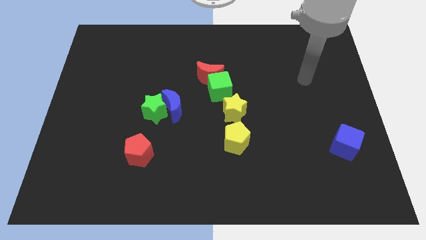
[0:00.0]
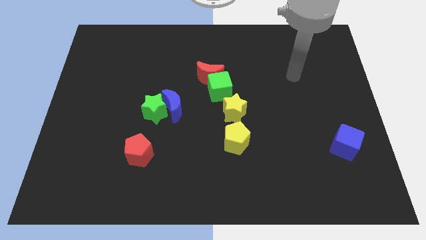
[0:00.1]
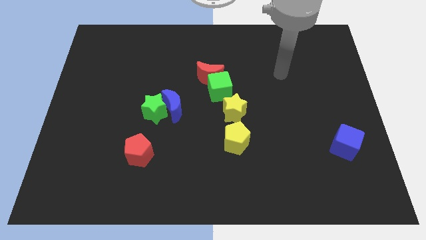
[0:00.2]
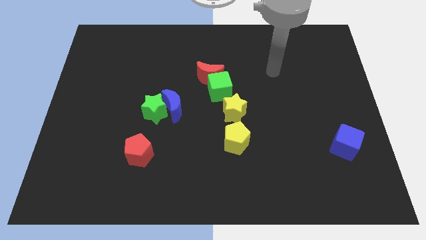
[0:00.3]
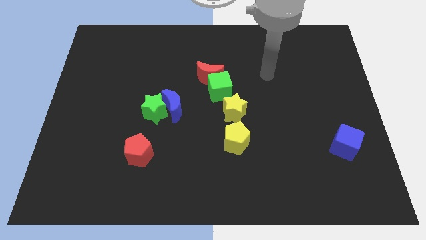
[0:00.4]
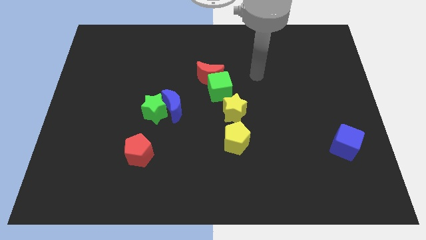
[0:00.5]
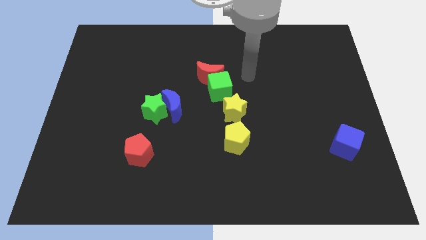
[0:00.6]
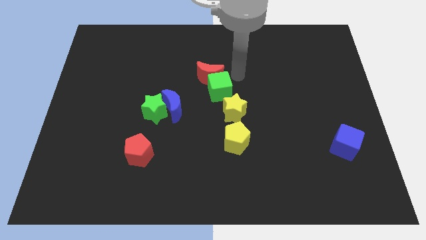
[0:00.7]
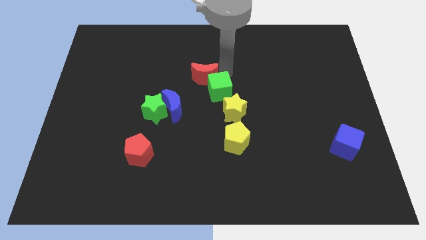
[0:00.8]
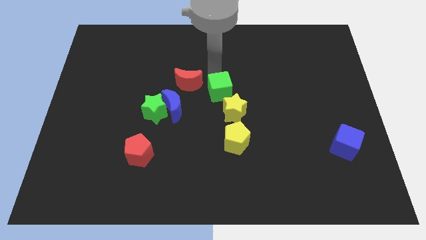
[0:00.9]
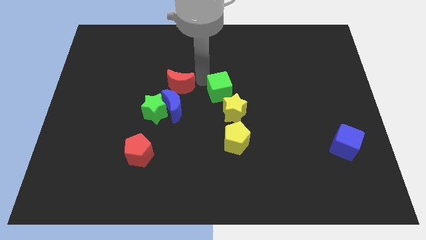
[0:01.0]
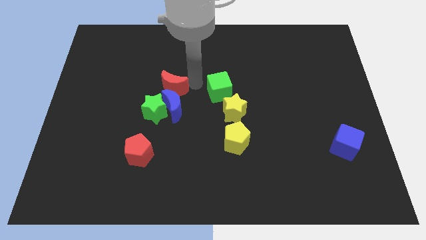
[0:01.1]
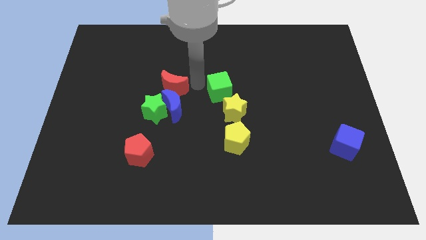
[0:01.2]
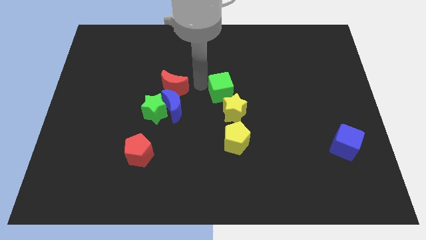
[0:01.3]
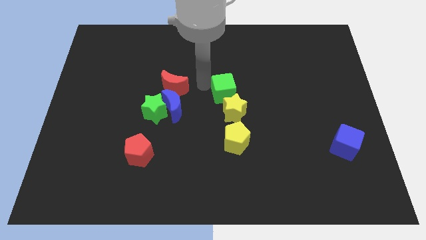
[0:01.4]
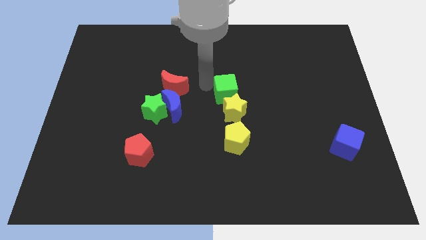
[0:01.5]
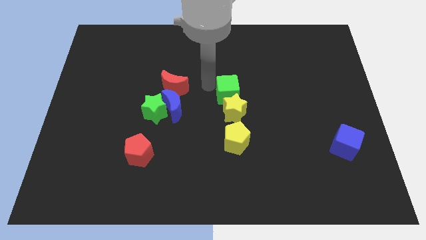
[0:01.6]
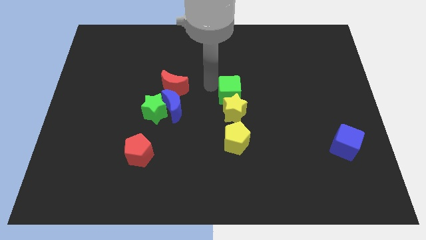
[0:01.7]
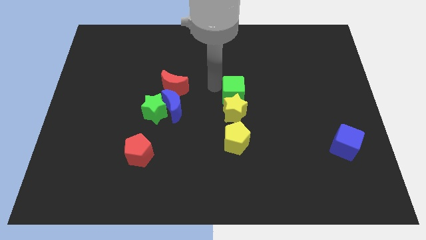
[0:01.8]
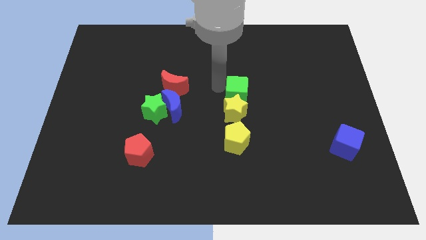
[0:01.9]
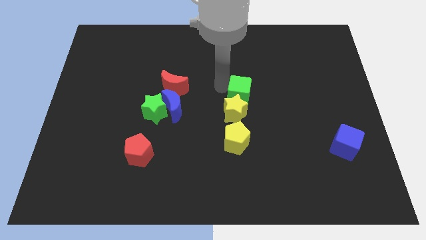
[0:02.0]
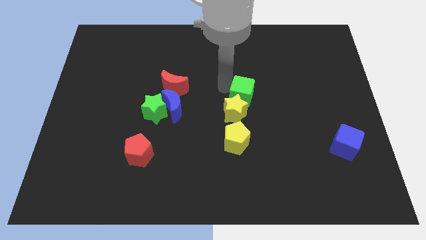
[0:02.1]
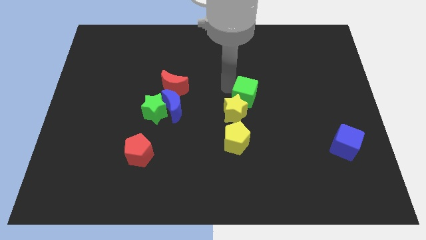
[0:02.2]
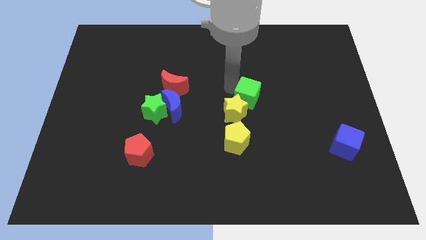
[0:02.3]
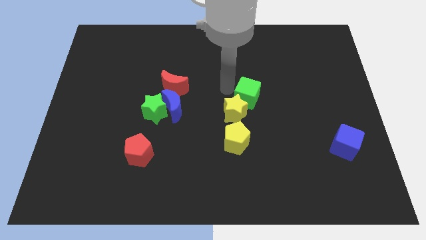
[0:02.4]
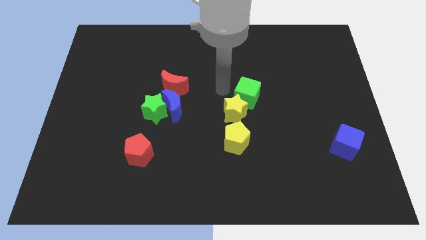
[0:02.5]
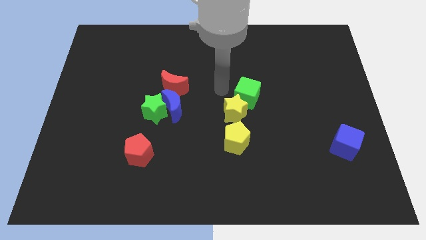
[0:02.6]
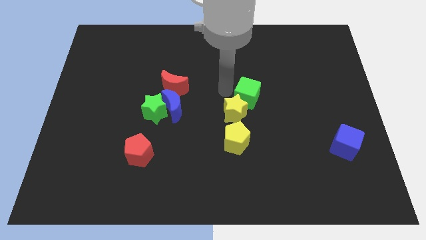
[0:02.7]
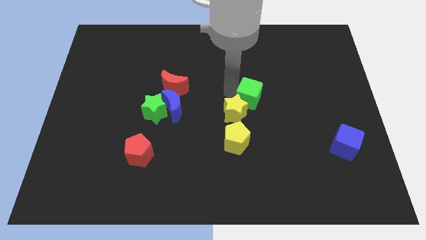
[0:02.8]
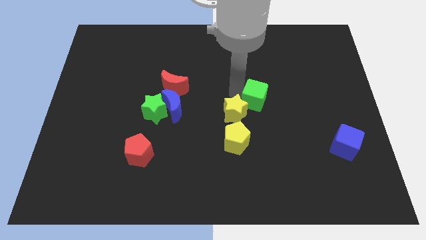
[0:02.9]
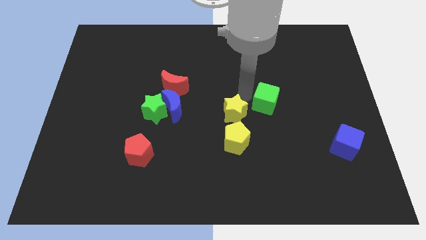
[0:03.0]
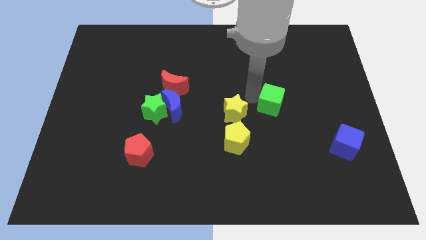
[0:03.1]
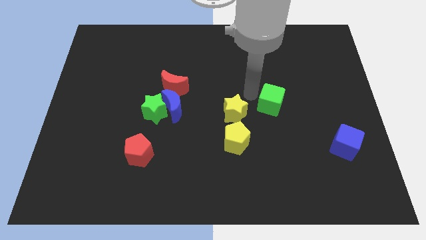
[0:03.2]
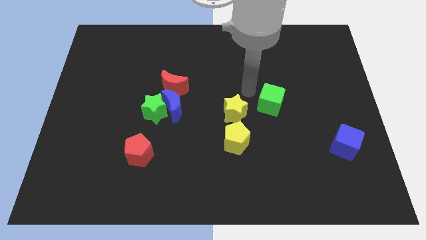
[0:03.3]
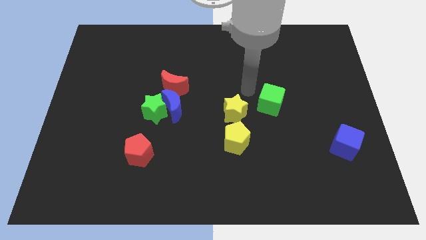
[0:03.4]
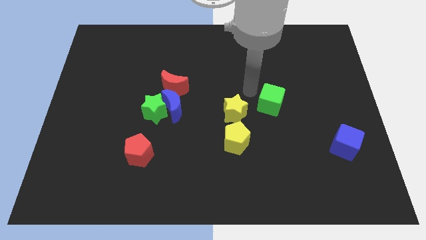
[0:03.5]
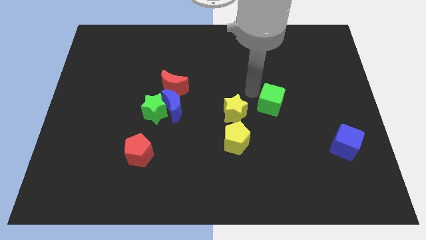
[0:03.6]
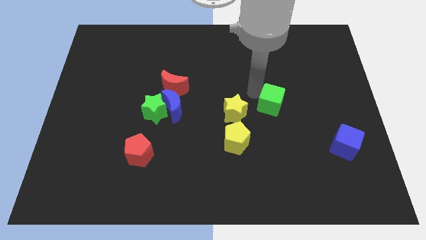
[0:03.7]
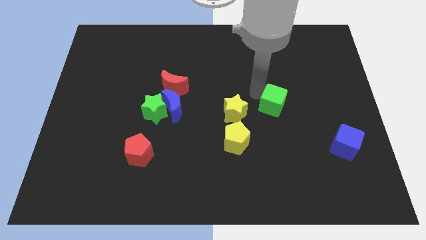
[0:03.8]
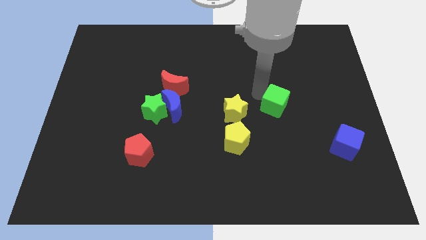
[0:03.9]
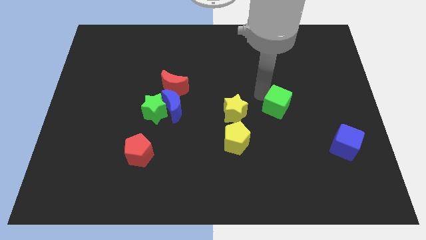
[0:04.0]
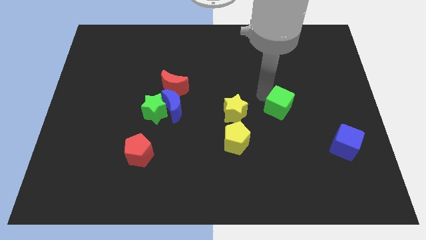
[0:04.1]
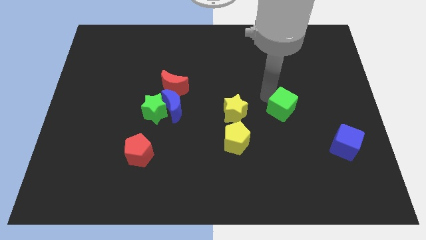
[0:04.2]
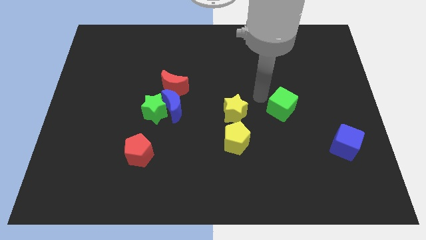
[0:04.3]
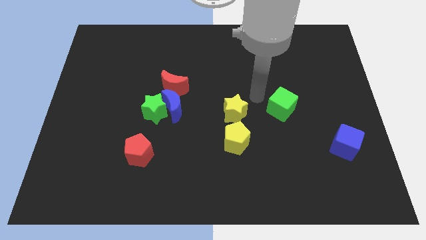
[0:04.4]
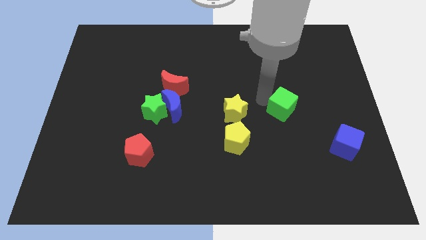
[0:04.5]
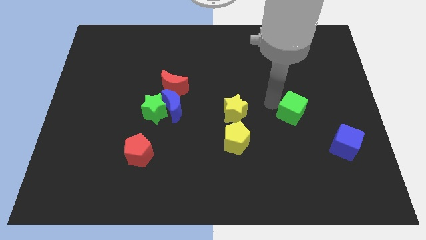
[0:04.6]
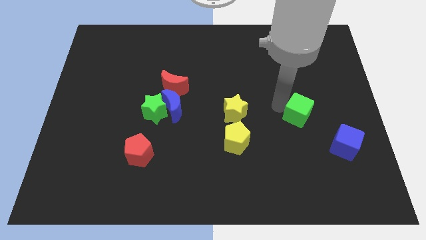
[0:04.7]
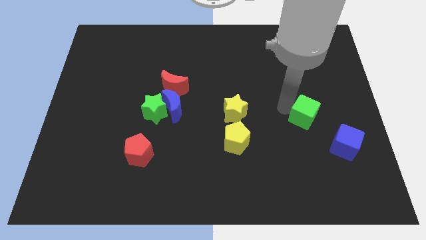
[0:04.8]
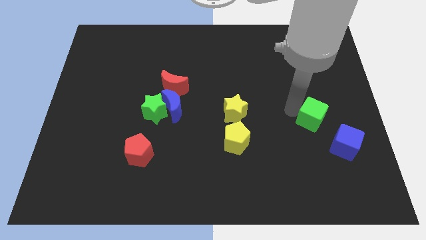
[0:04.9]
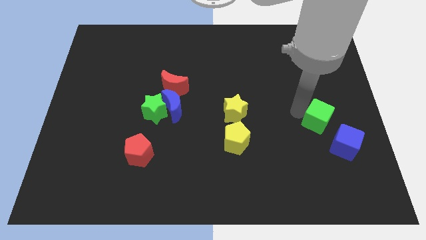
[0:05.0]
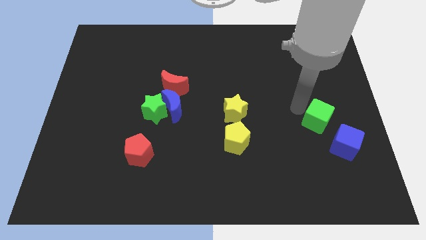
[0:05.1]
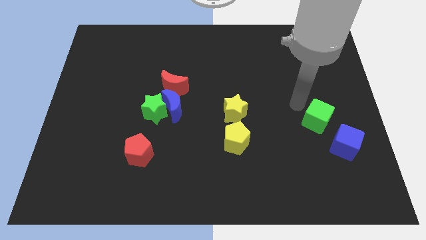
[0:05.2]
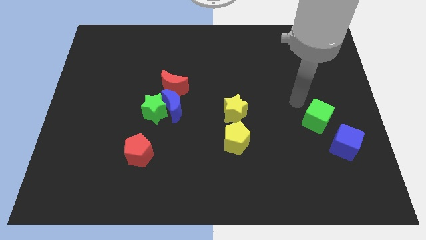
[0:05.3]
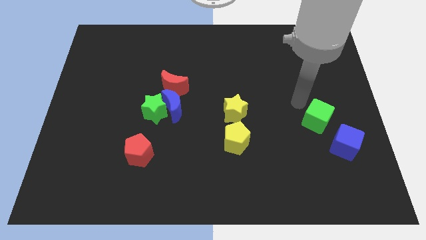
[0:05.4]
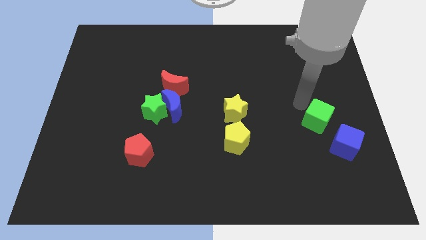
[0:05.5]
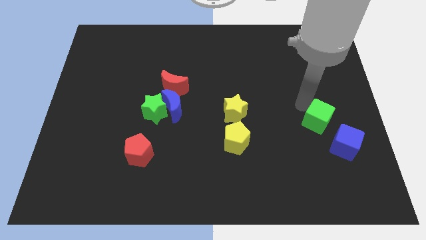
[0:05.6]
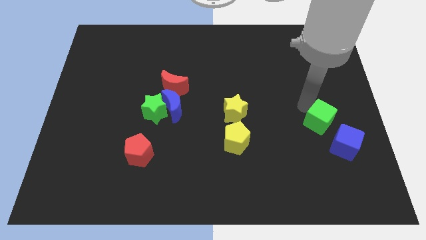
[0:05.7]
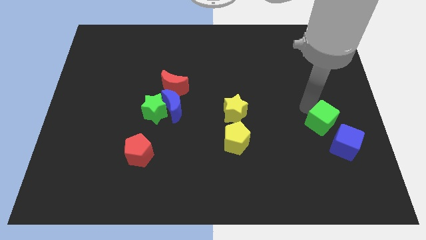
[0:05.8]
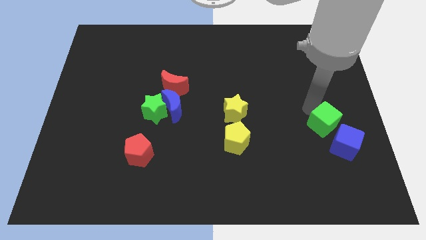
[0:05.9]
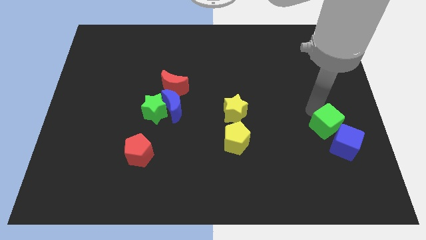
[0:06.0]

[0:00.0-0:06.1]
put the green cube to the blue cube

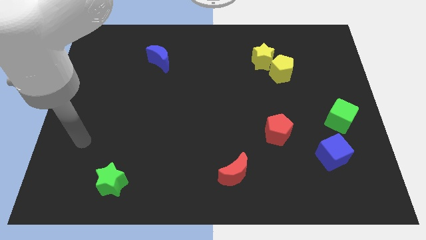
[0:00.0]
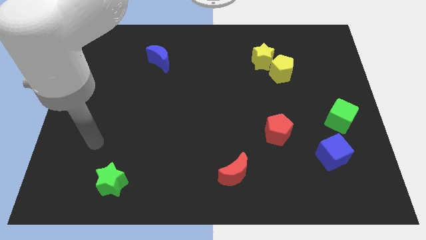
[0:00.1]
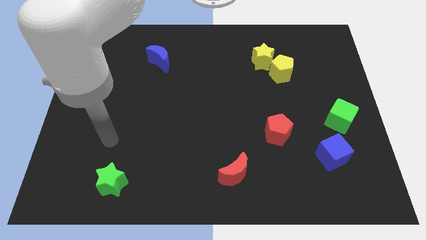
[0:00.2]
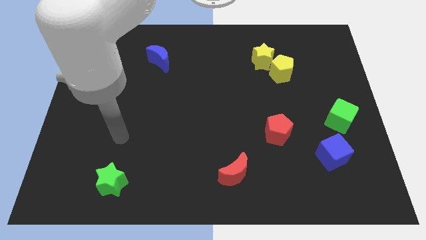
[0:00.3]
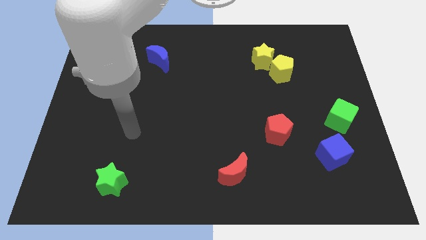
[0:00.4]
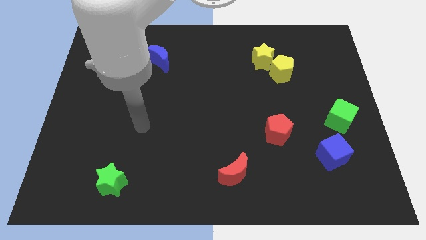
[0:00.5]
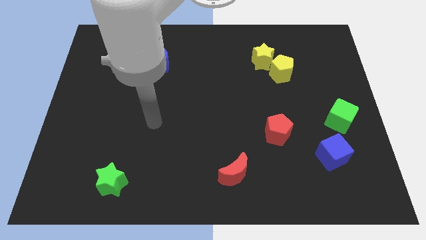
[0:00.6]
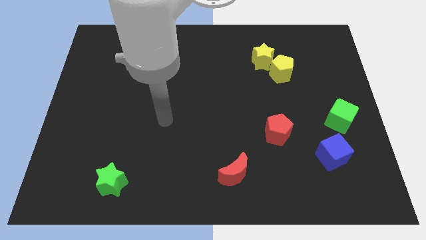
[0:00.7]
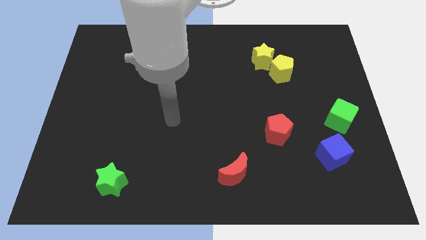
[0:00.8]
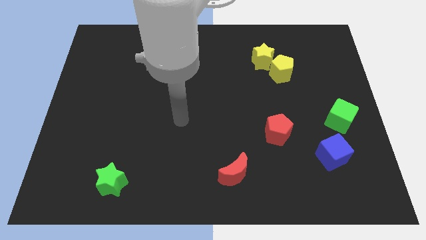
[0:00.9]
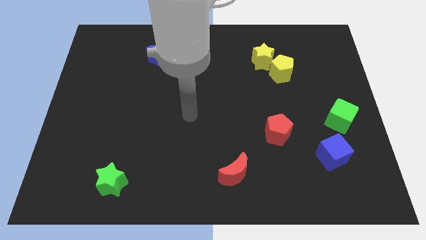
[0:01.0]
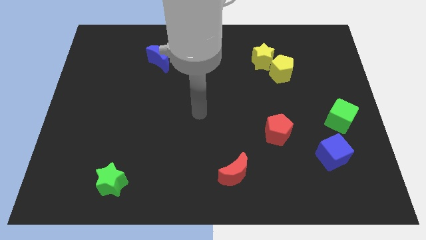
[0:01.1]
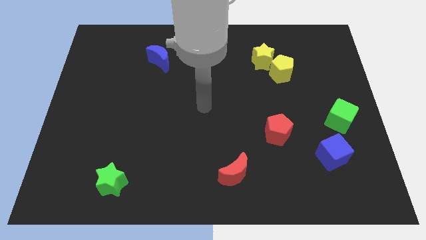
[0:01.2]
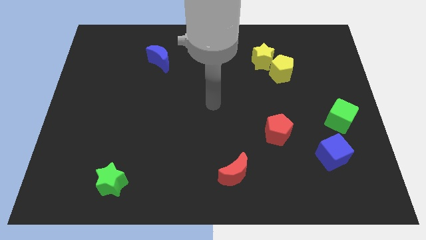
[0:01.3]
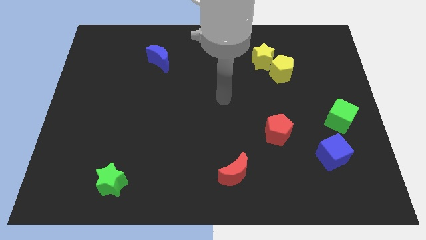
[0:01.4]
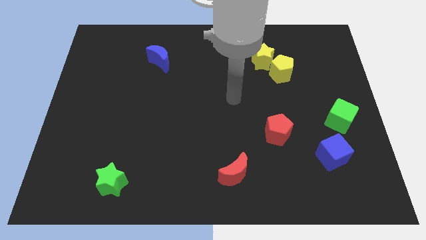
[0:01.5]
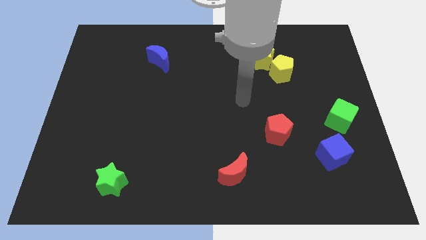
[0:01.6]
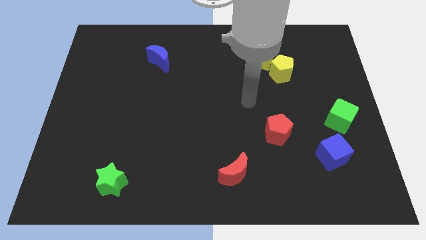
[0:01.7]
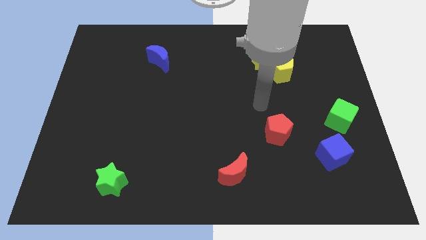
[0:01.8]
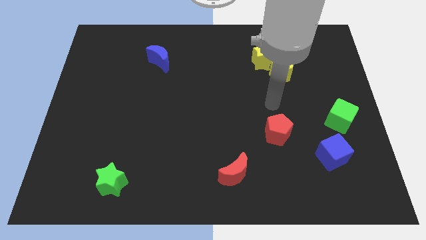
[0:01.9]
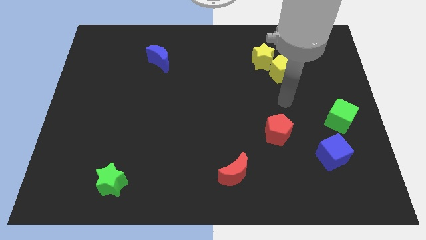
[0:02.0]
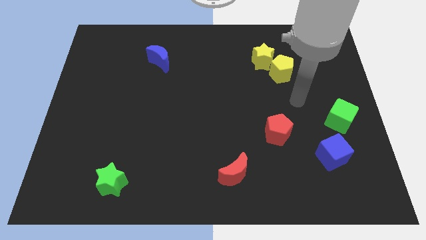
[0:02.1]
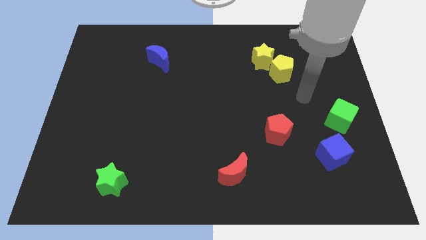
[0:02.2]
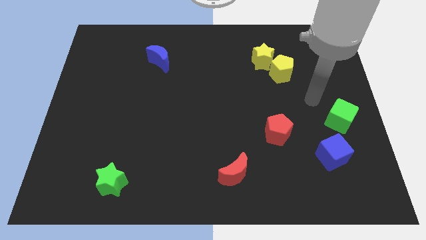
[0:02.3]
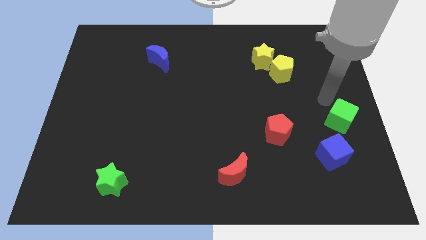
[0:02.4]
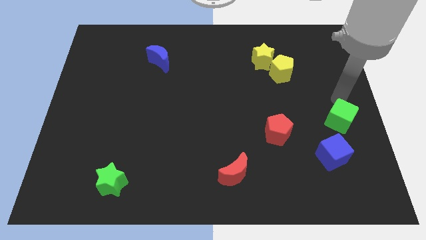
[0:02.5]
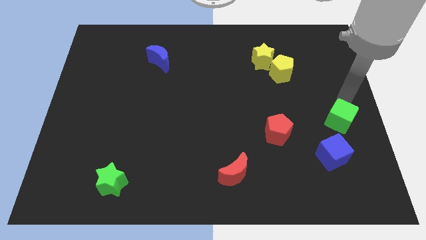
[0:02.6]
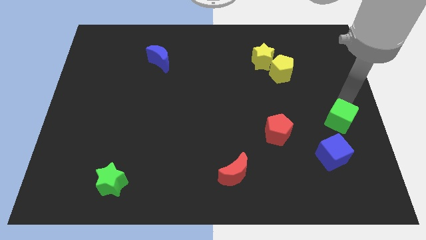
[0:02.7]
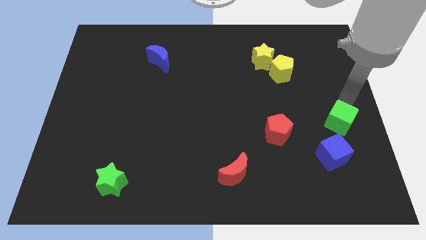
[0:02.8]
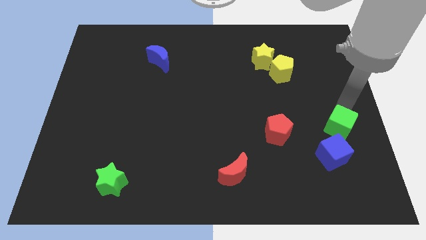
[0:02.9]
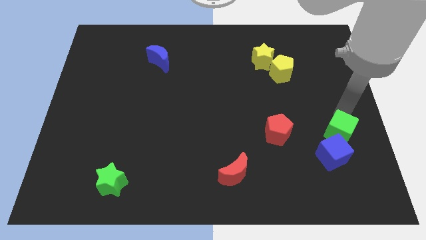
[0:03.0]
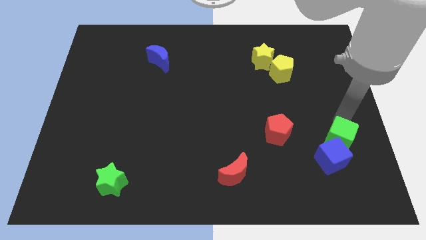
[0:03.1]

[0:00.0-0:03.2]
slide the green cube towards the blue cube
